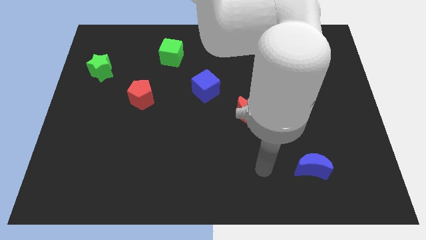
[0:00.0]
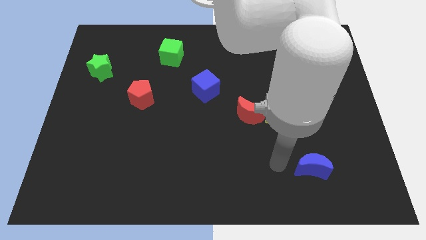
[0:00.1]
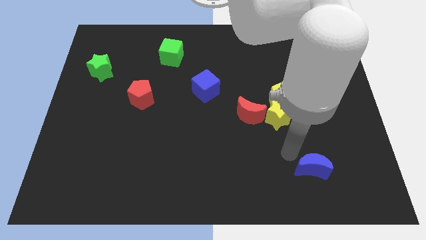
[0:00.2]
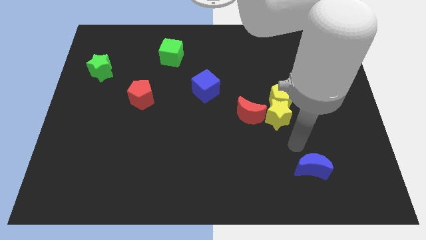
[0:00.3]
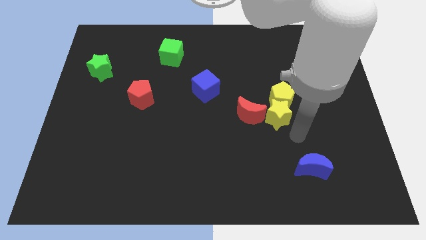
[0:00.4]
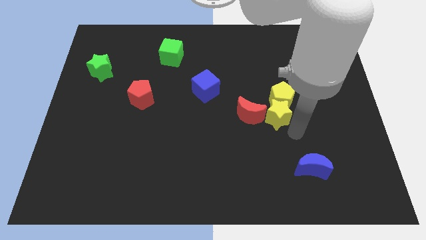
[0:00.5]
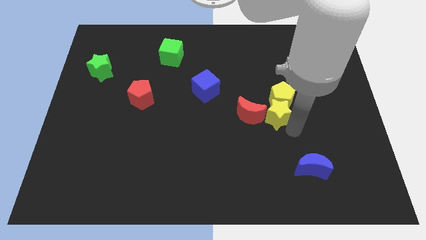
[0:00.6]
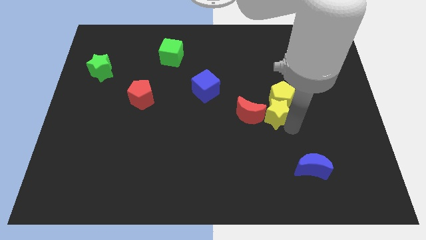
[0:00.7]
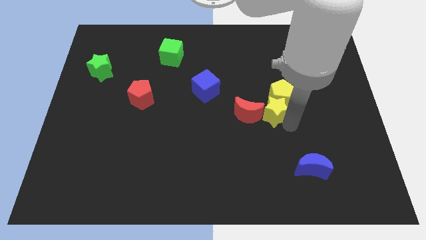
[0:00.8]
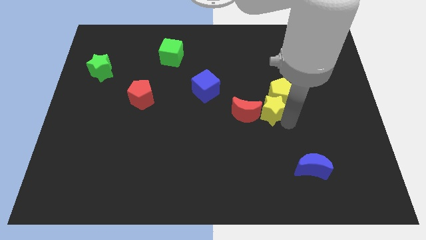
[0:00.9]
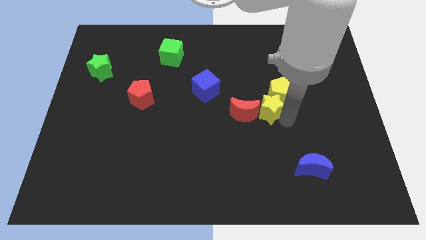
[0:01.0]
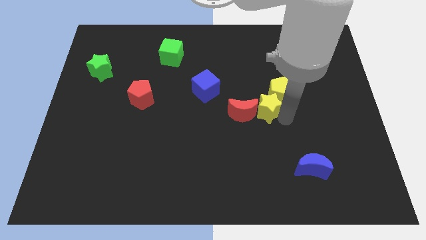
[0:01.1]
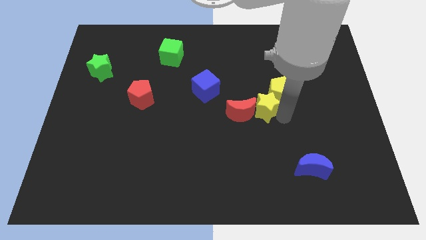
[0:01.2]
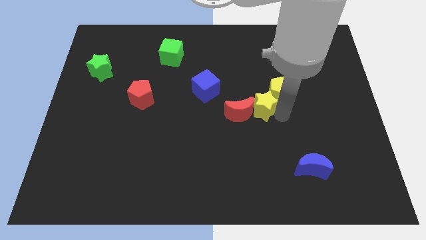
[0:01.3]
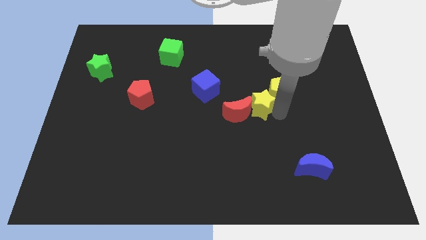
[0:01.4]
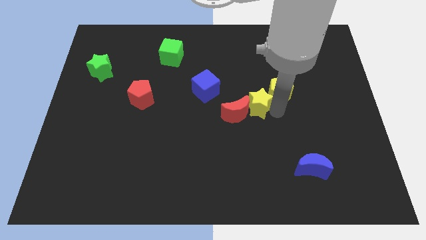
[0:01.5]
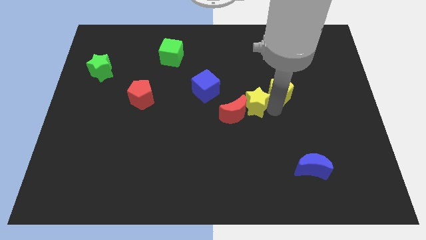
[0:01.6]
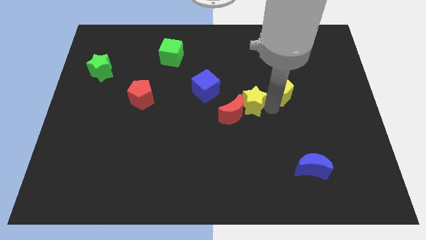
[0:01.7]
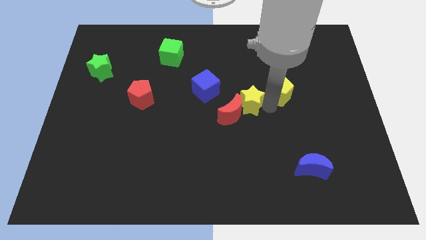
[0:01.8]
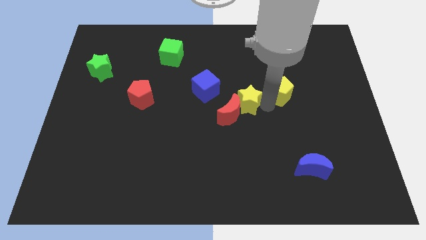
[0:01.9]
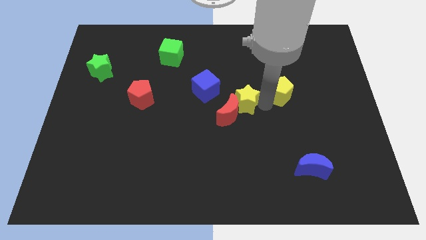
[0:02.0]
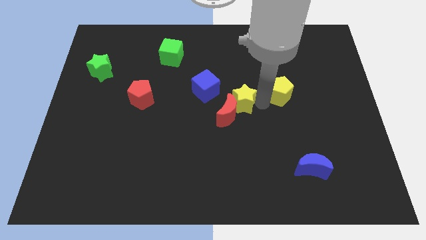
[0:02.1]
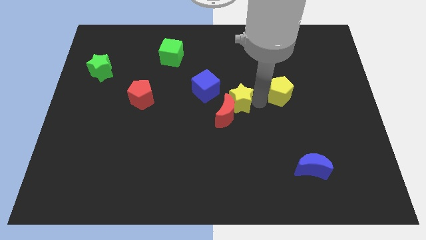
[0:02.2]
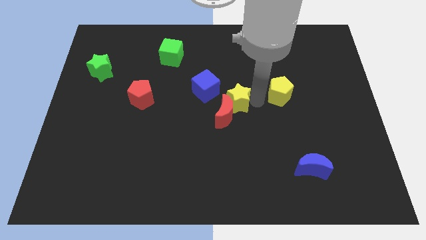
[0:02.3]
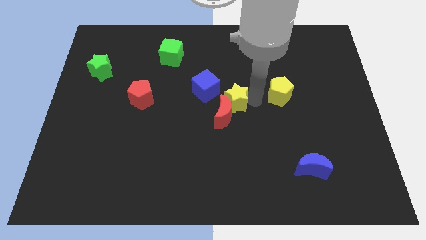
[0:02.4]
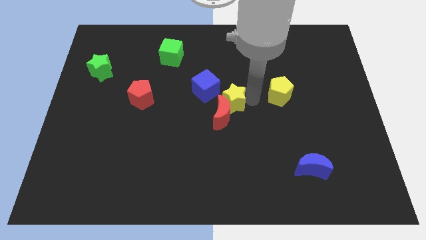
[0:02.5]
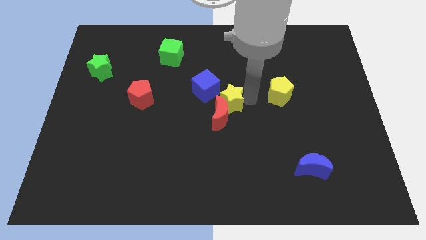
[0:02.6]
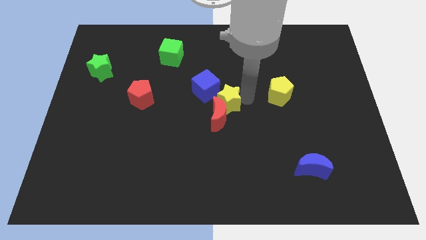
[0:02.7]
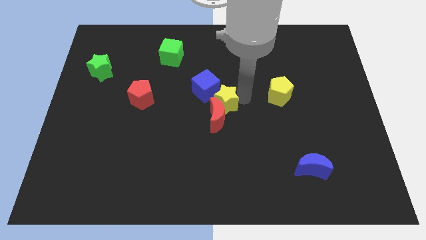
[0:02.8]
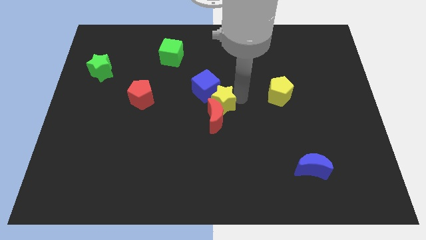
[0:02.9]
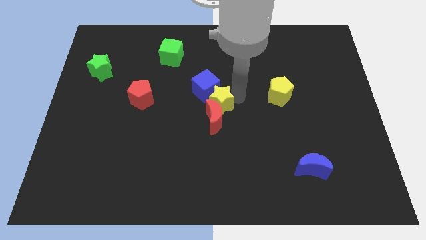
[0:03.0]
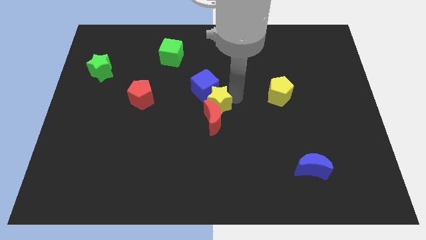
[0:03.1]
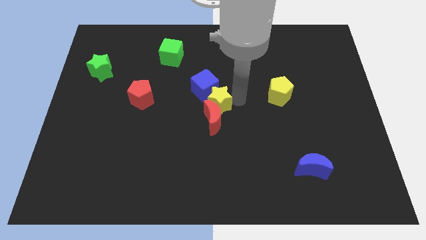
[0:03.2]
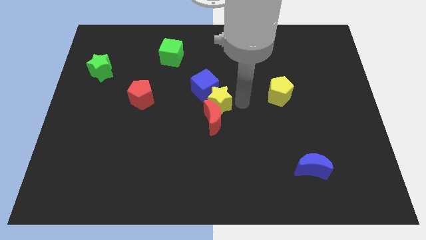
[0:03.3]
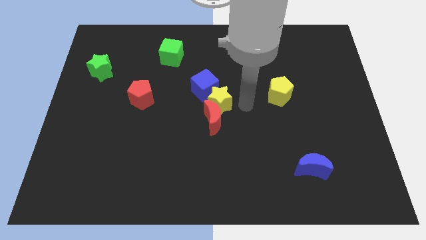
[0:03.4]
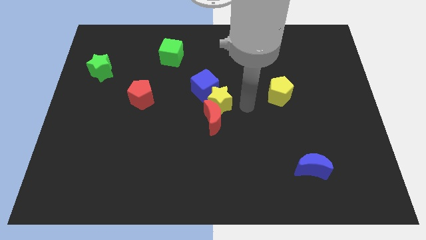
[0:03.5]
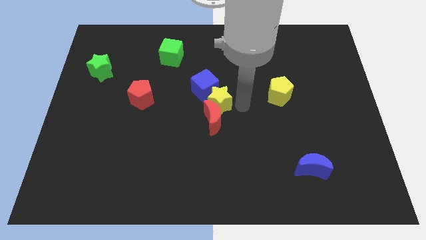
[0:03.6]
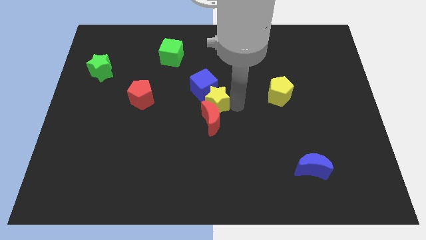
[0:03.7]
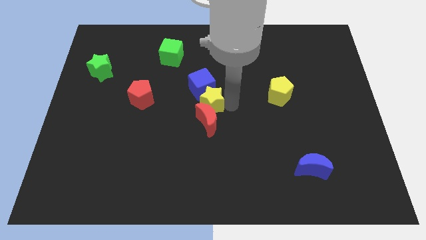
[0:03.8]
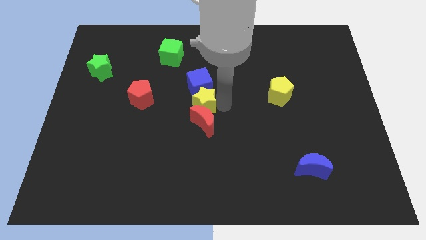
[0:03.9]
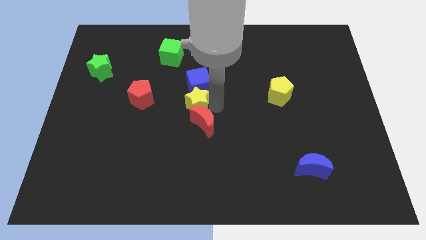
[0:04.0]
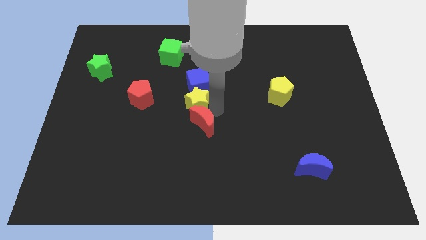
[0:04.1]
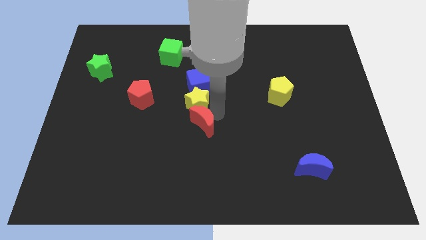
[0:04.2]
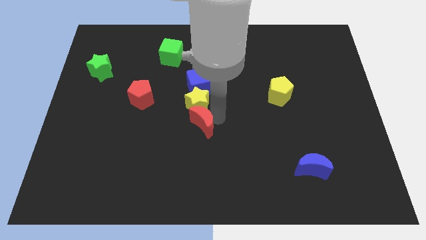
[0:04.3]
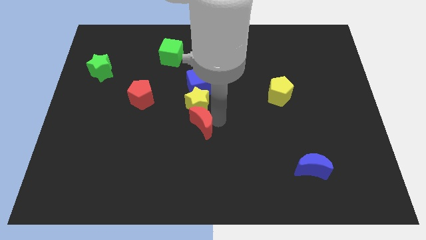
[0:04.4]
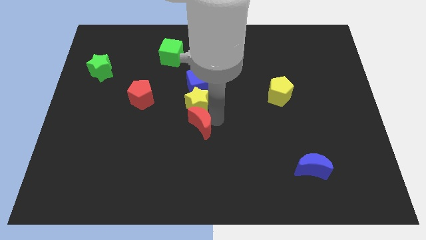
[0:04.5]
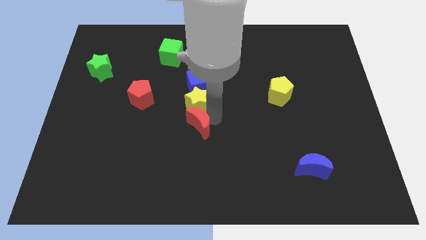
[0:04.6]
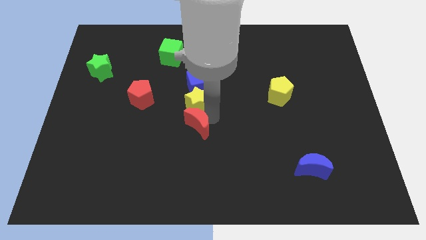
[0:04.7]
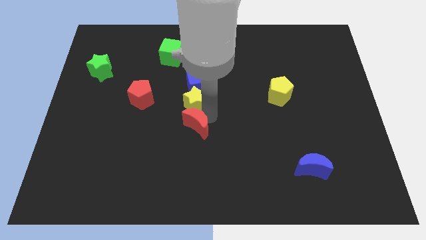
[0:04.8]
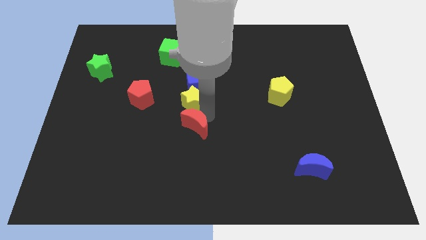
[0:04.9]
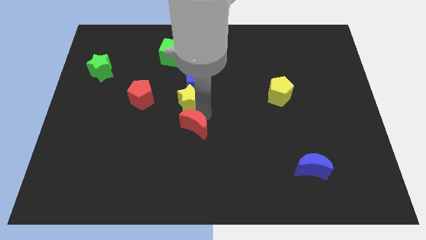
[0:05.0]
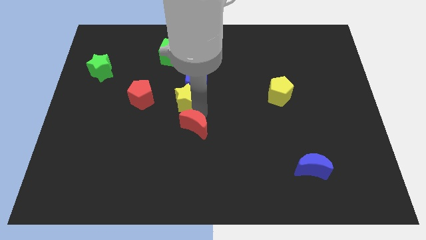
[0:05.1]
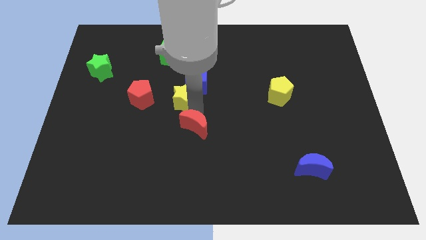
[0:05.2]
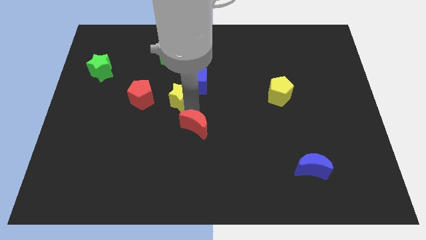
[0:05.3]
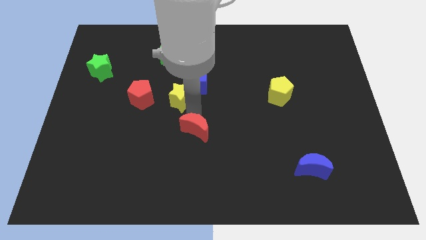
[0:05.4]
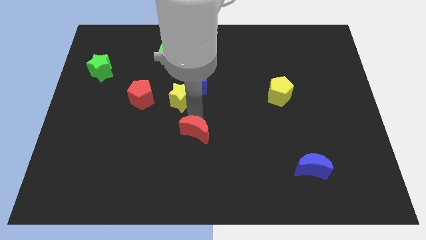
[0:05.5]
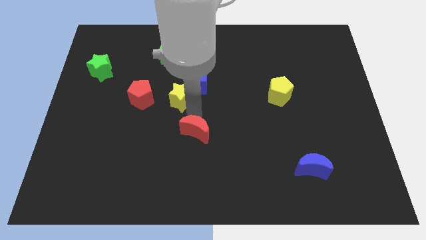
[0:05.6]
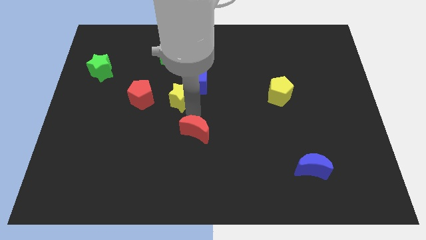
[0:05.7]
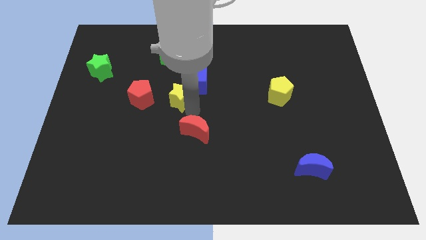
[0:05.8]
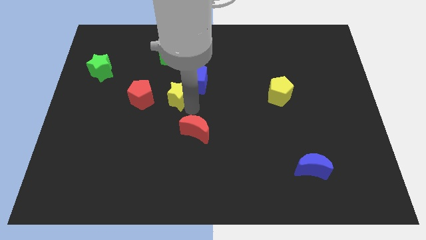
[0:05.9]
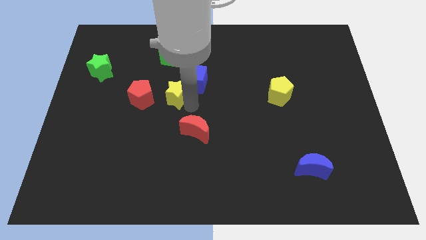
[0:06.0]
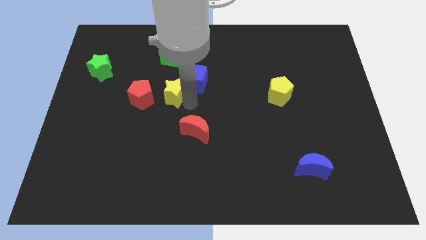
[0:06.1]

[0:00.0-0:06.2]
push the yellow star to the top right of the red pentagon
